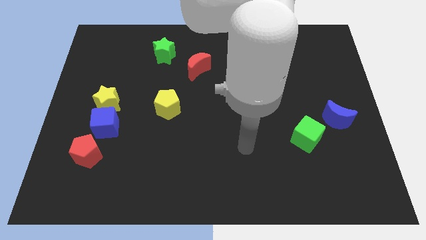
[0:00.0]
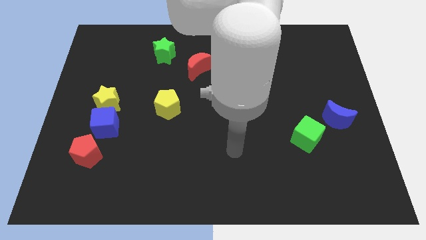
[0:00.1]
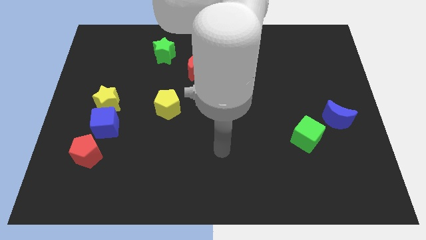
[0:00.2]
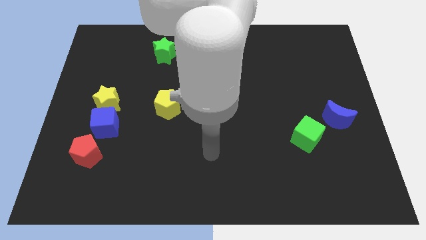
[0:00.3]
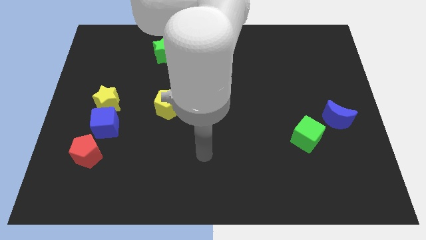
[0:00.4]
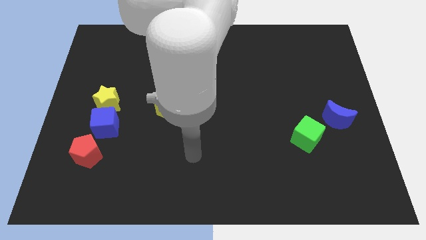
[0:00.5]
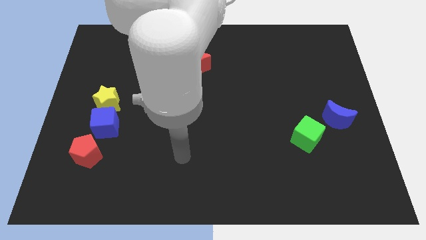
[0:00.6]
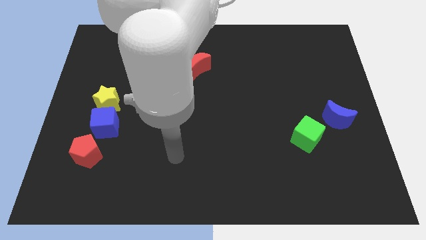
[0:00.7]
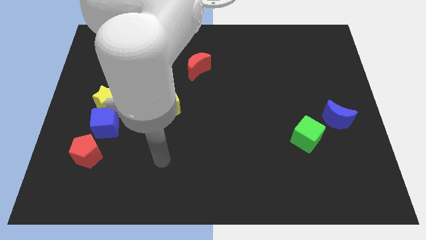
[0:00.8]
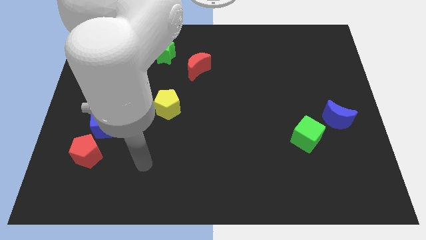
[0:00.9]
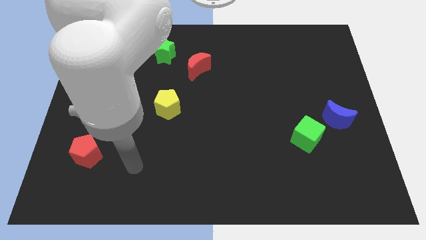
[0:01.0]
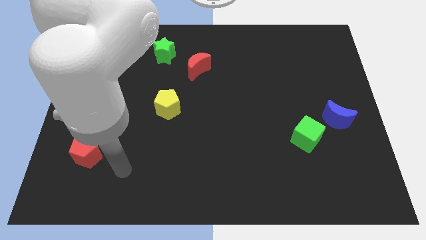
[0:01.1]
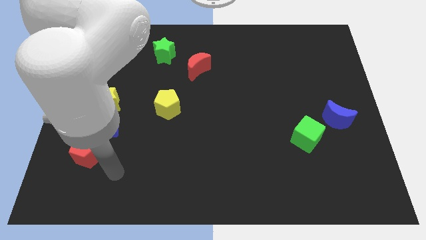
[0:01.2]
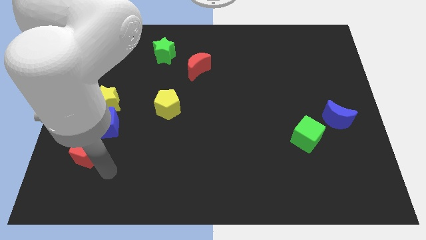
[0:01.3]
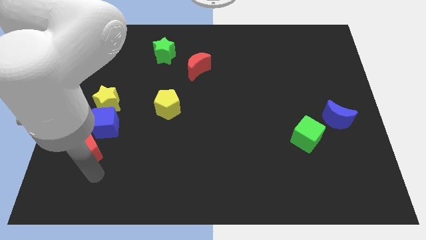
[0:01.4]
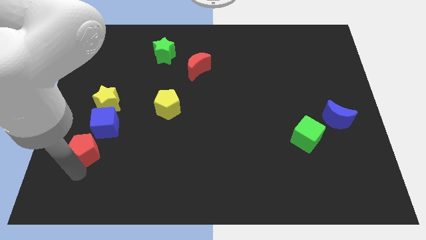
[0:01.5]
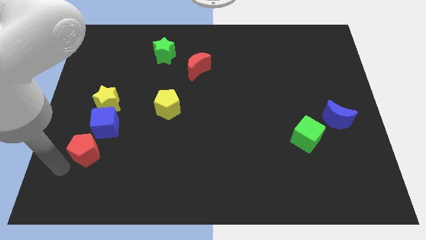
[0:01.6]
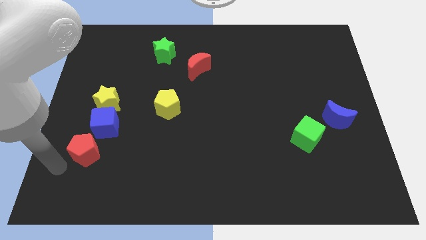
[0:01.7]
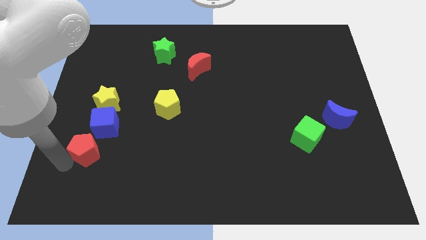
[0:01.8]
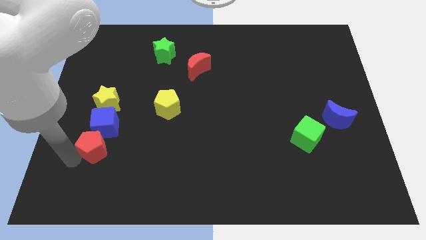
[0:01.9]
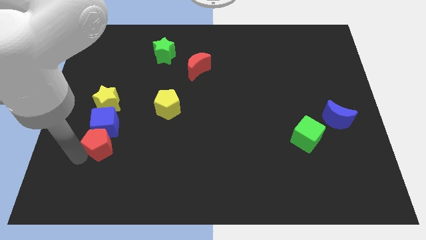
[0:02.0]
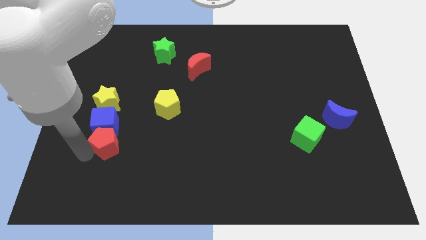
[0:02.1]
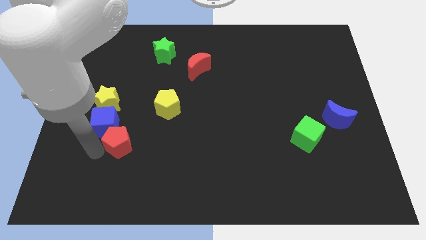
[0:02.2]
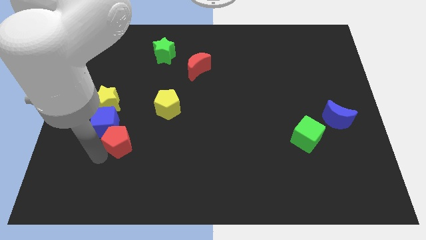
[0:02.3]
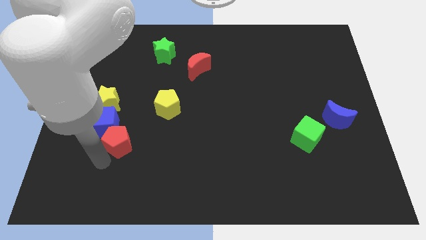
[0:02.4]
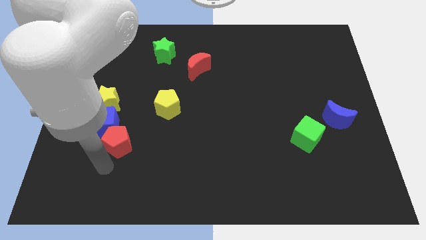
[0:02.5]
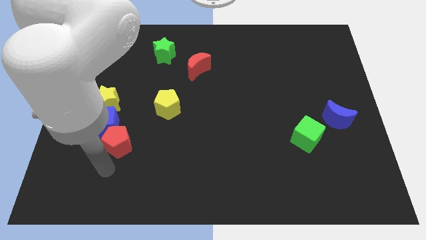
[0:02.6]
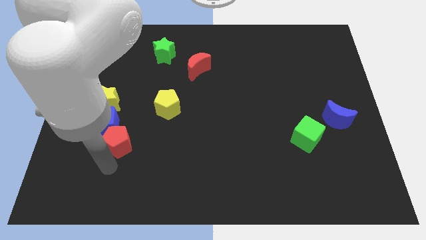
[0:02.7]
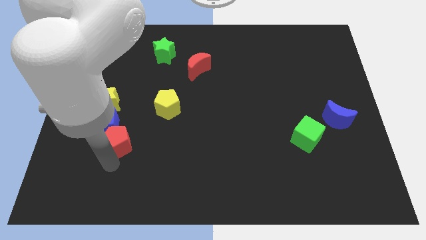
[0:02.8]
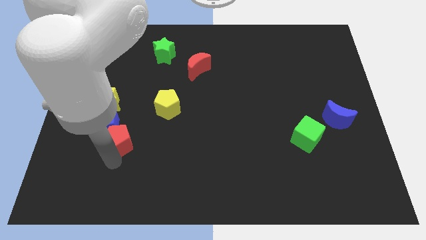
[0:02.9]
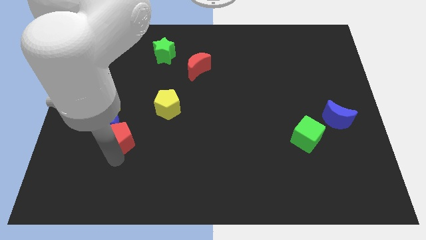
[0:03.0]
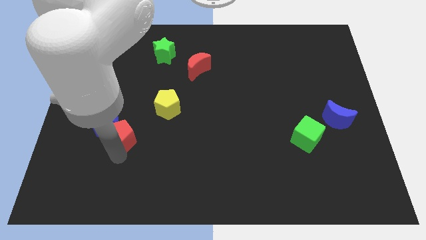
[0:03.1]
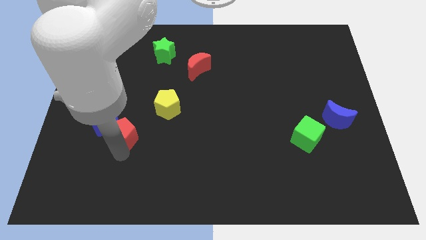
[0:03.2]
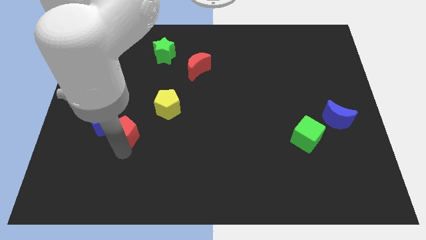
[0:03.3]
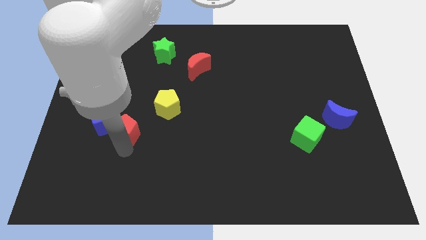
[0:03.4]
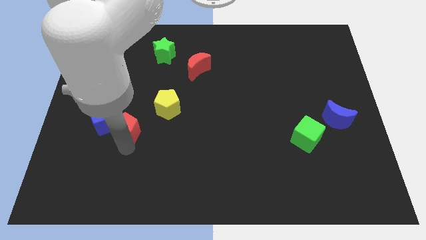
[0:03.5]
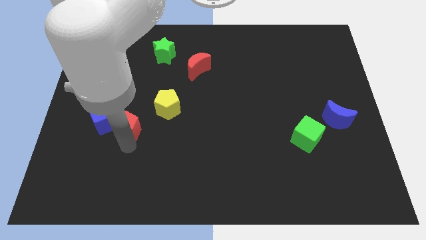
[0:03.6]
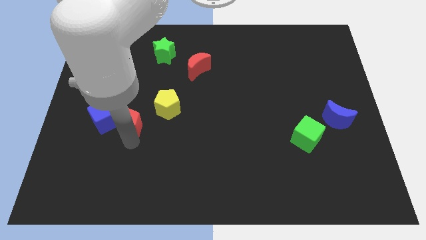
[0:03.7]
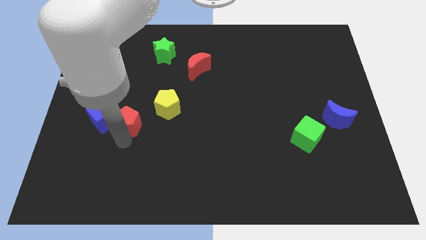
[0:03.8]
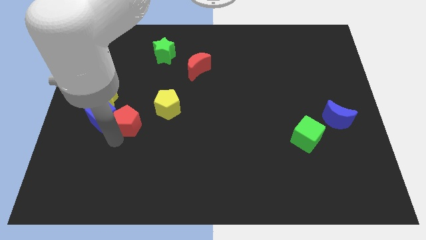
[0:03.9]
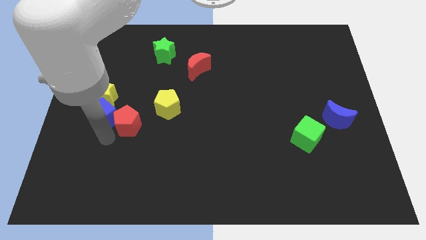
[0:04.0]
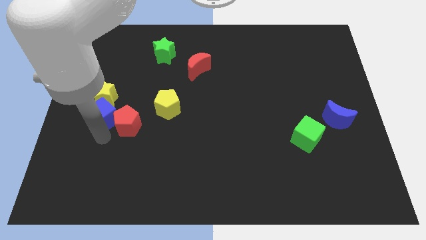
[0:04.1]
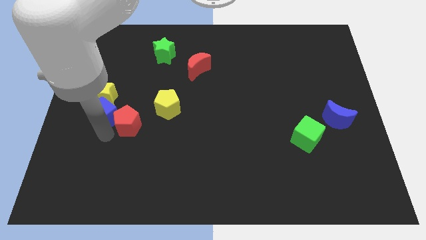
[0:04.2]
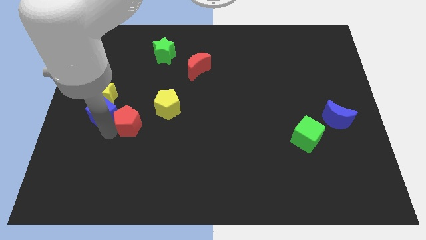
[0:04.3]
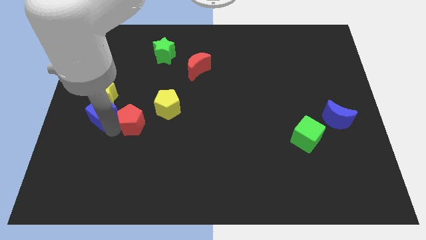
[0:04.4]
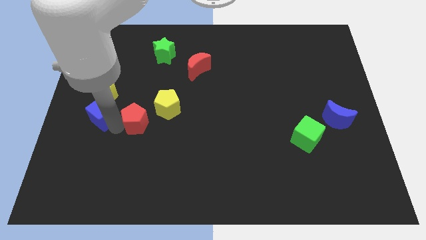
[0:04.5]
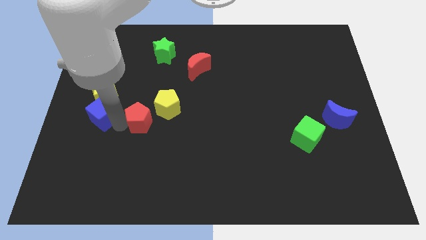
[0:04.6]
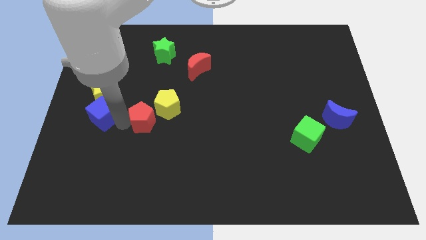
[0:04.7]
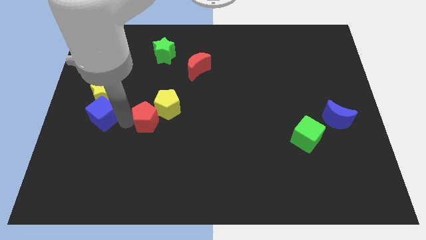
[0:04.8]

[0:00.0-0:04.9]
slide the red pentagon close to the yellow pentagon

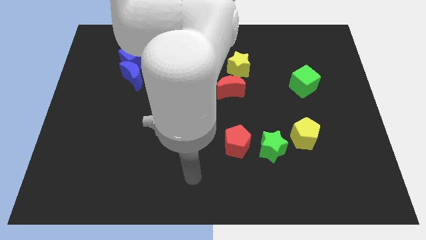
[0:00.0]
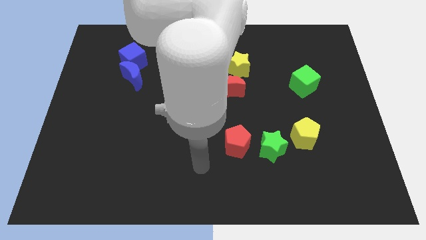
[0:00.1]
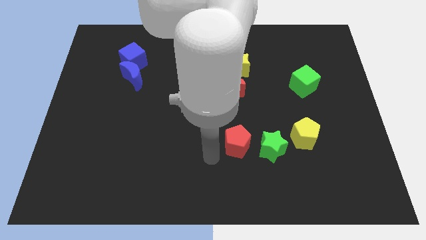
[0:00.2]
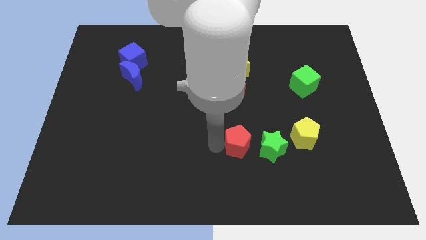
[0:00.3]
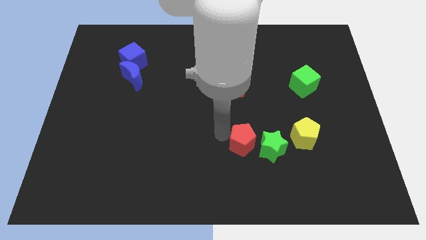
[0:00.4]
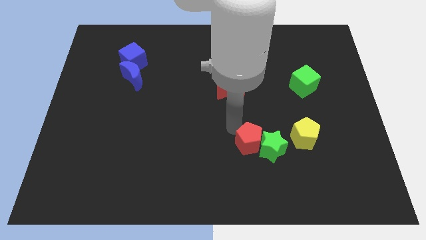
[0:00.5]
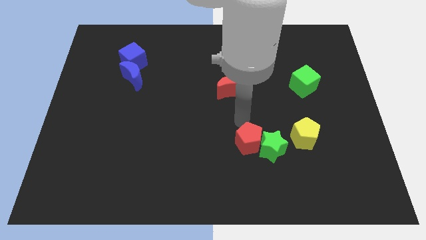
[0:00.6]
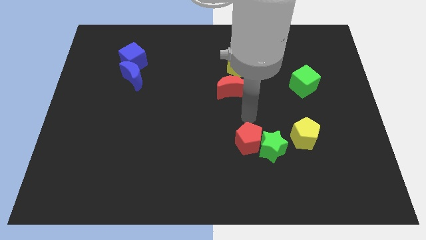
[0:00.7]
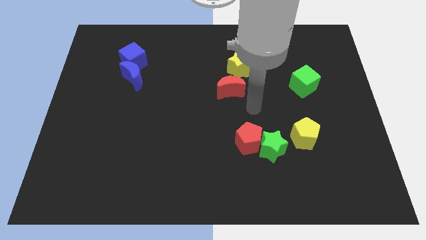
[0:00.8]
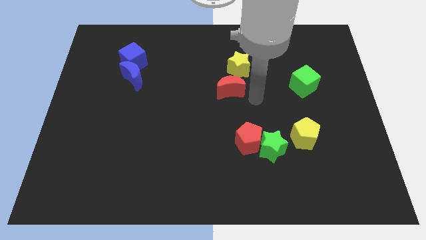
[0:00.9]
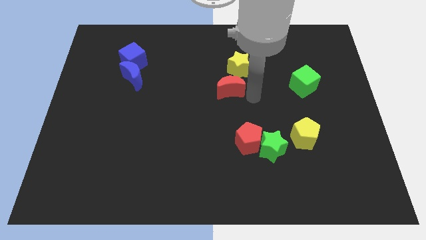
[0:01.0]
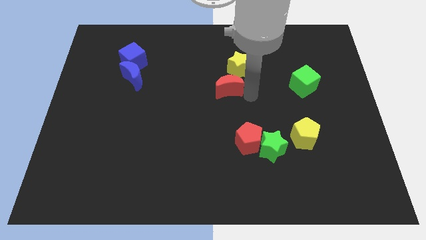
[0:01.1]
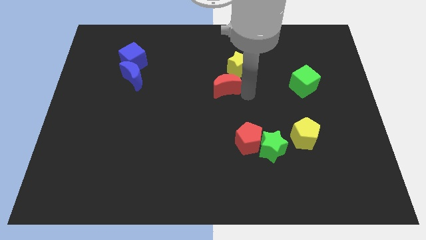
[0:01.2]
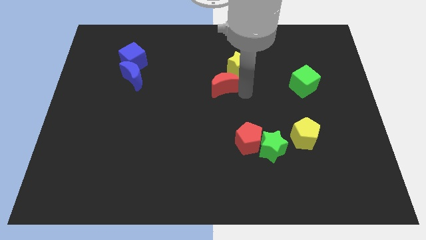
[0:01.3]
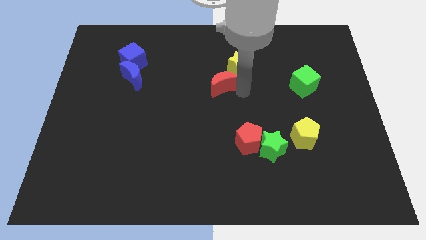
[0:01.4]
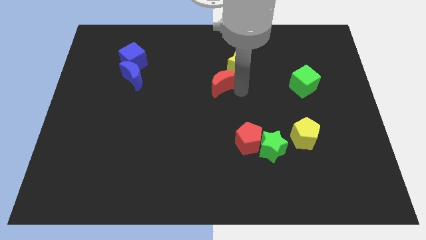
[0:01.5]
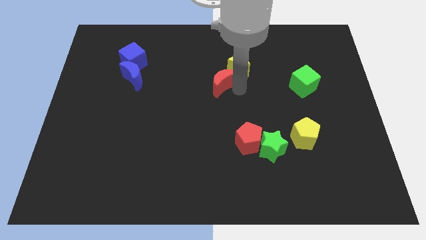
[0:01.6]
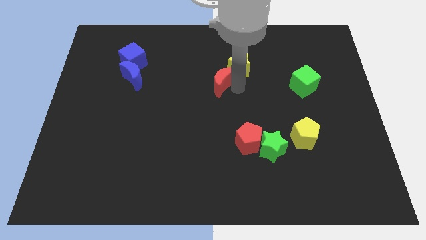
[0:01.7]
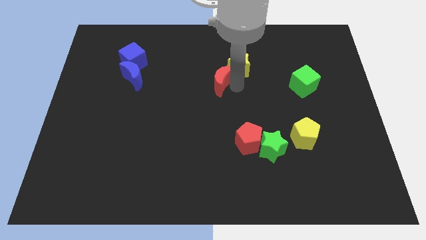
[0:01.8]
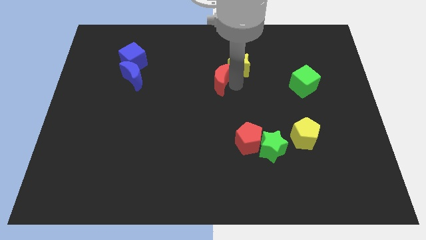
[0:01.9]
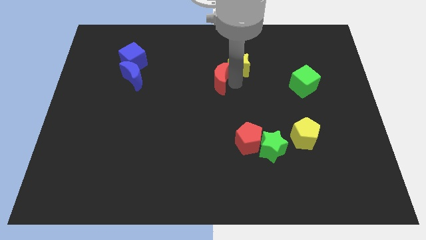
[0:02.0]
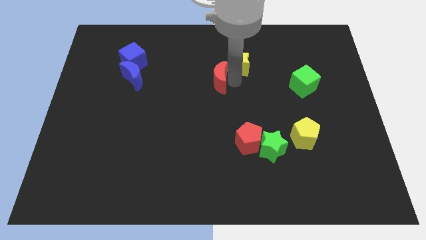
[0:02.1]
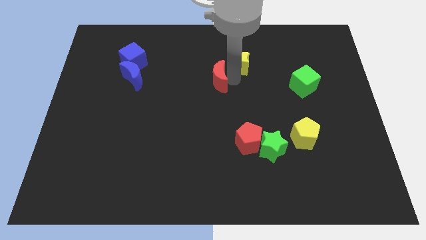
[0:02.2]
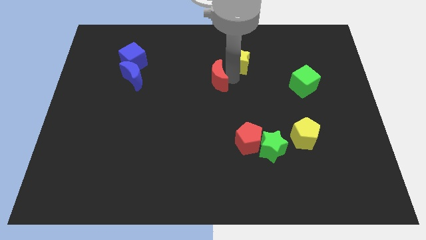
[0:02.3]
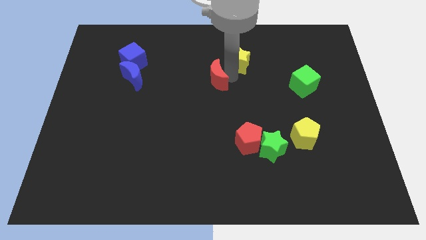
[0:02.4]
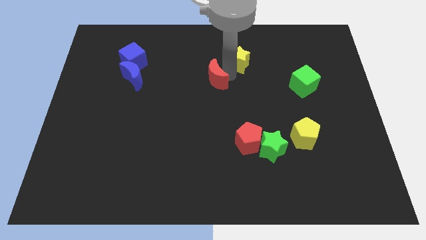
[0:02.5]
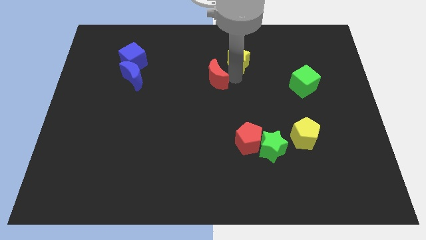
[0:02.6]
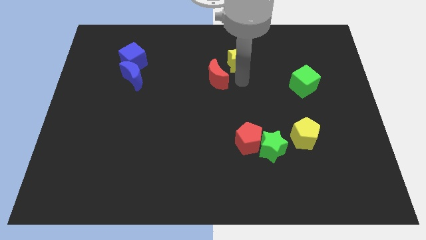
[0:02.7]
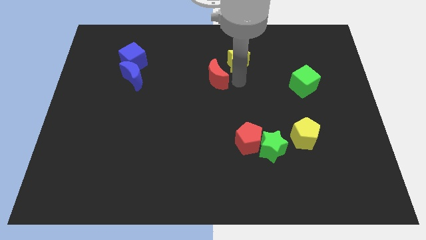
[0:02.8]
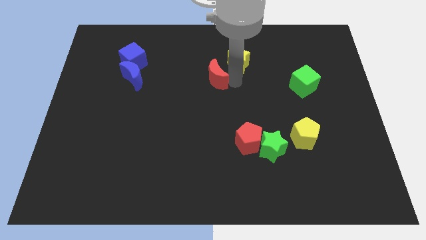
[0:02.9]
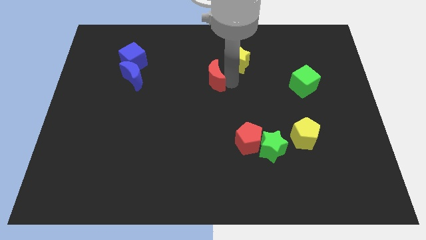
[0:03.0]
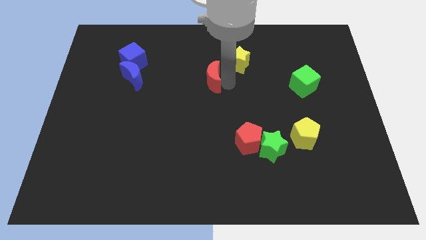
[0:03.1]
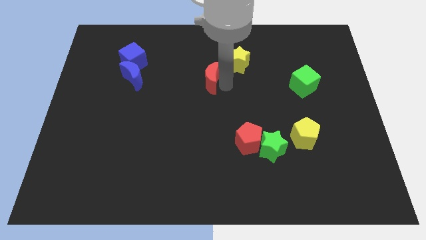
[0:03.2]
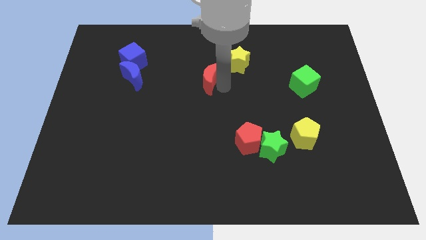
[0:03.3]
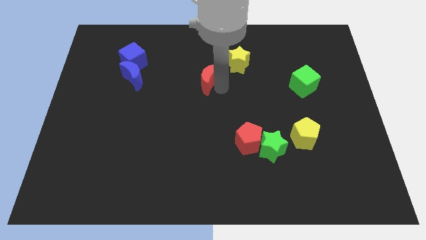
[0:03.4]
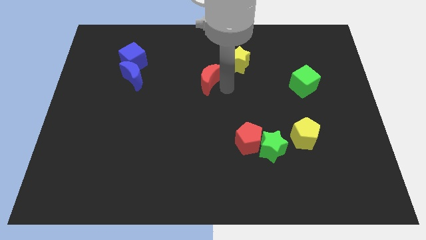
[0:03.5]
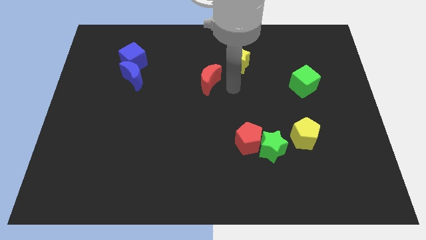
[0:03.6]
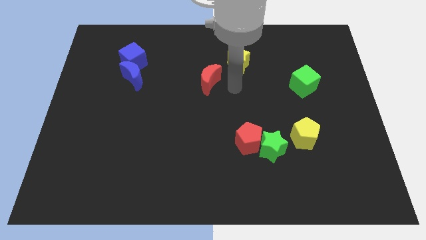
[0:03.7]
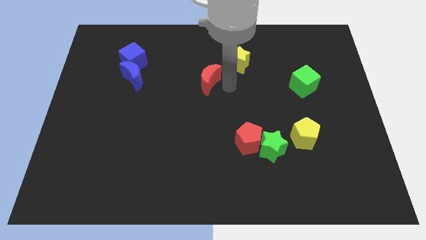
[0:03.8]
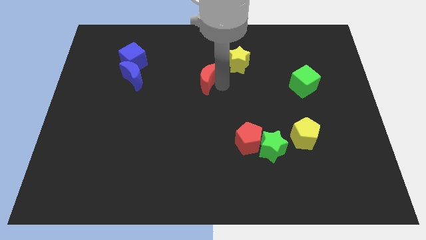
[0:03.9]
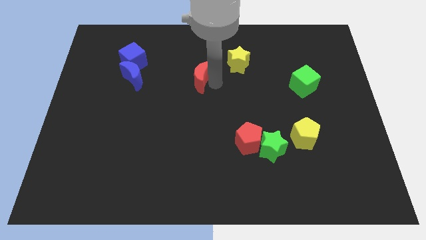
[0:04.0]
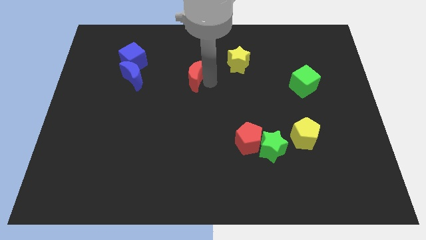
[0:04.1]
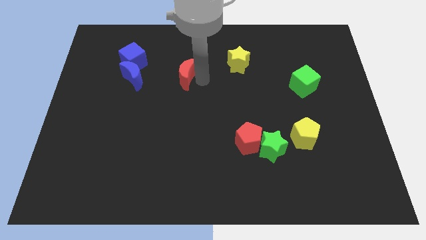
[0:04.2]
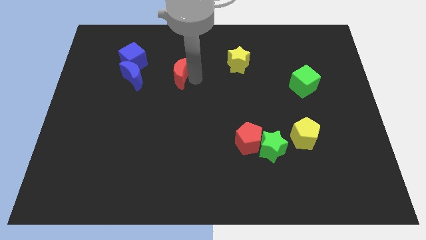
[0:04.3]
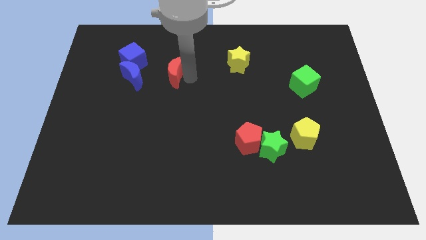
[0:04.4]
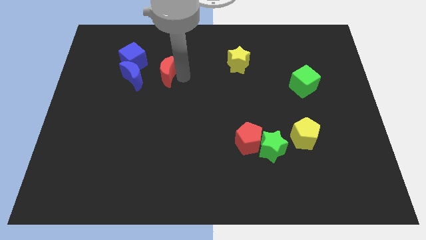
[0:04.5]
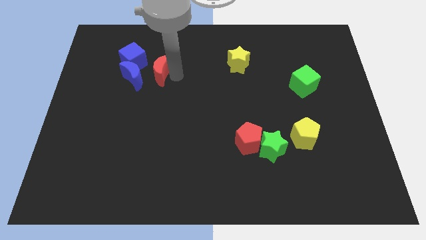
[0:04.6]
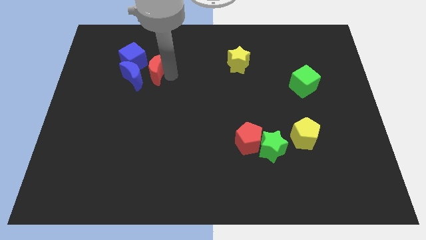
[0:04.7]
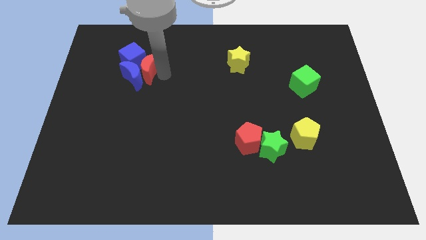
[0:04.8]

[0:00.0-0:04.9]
move the red moon next to the blue cube
